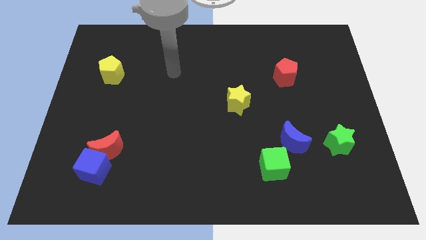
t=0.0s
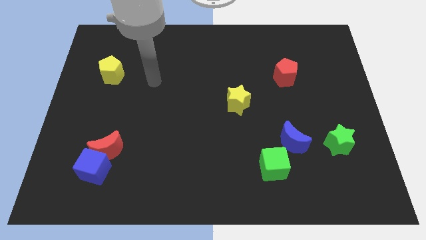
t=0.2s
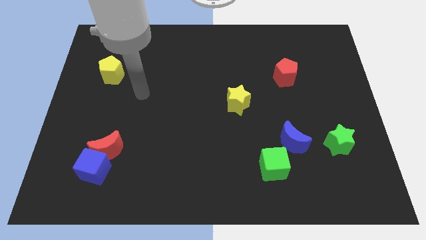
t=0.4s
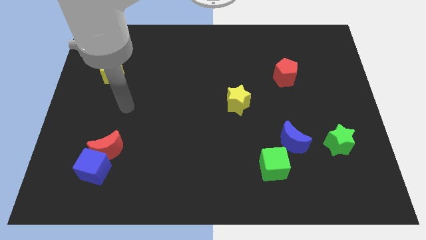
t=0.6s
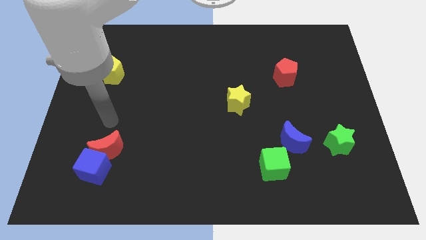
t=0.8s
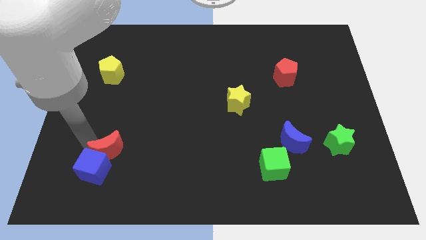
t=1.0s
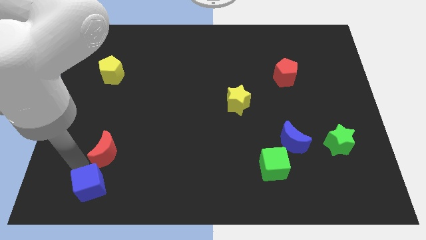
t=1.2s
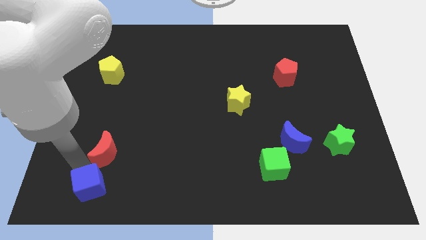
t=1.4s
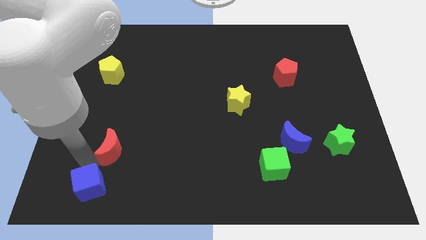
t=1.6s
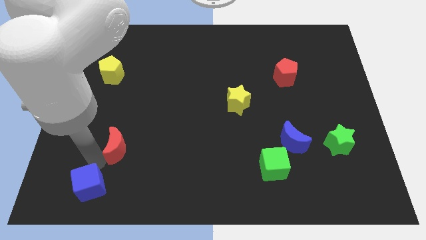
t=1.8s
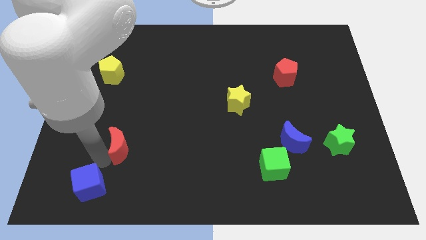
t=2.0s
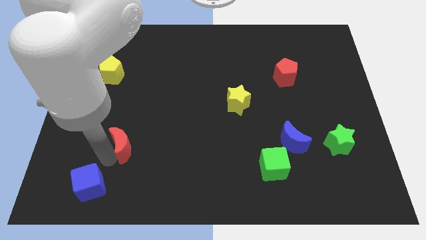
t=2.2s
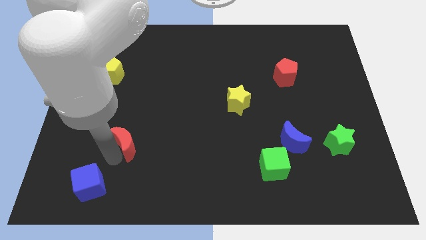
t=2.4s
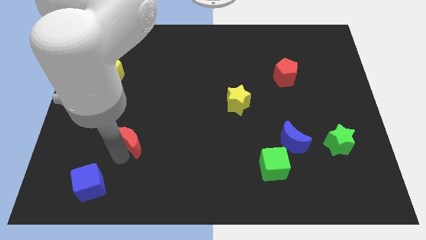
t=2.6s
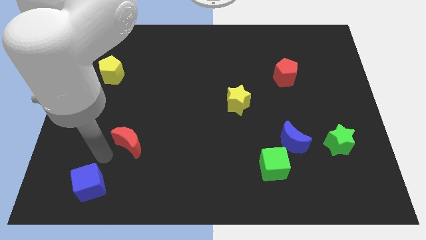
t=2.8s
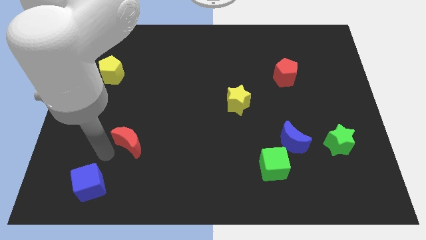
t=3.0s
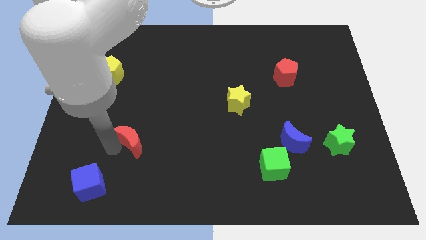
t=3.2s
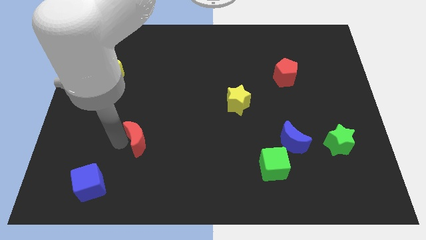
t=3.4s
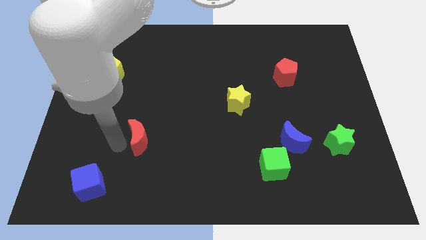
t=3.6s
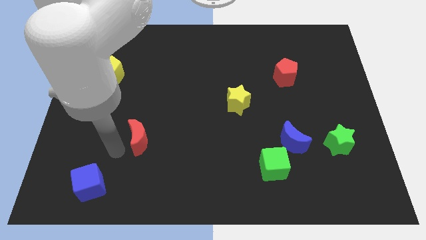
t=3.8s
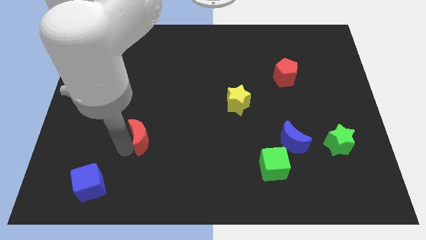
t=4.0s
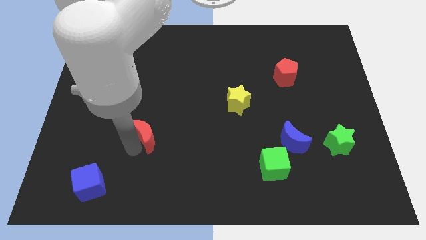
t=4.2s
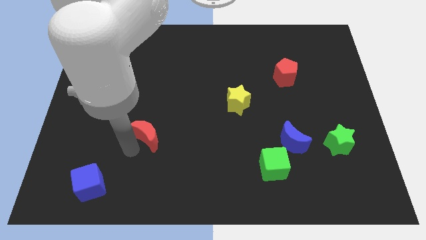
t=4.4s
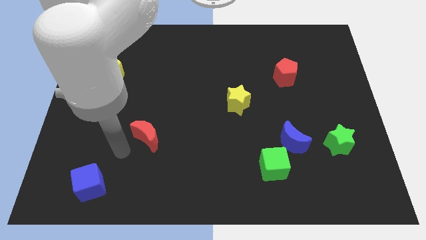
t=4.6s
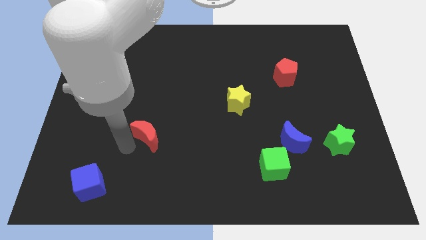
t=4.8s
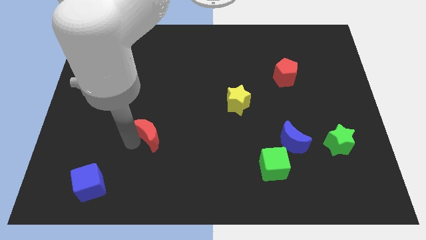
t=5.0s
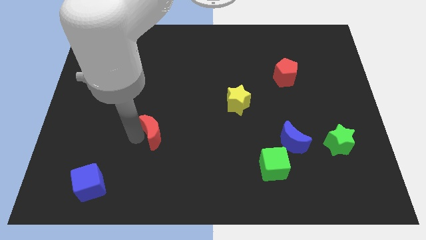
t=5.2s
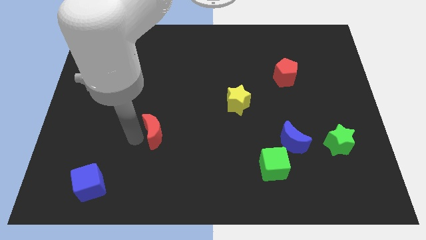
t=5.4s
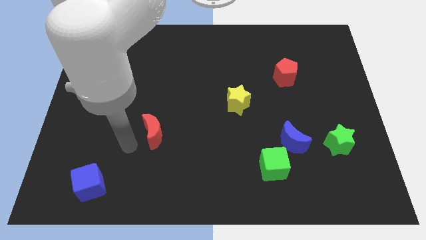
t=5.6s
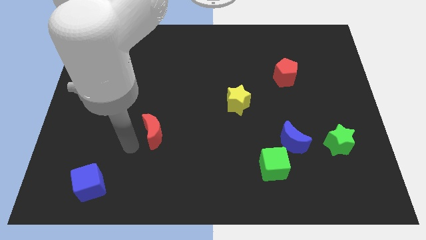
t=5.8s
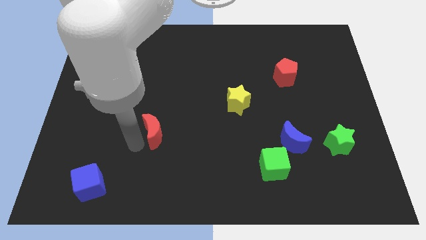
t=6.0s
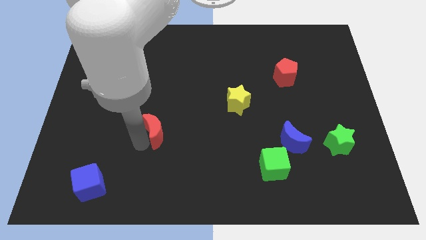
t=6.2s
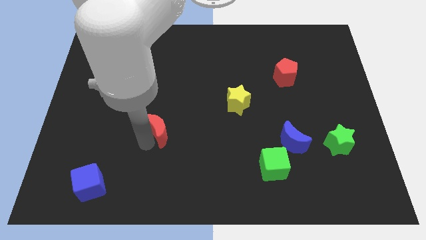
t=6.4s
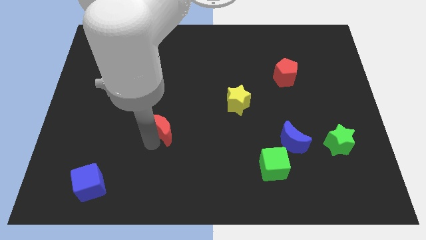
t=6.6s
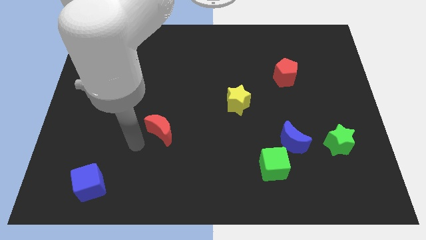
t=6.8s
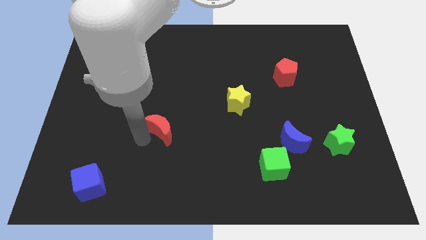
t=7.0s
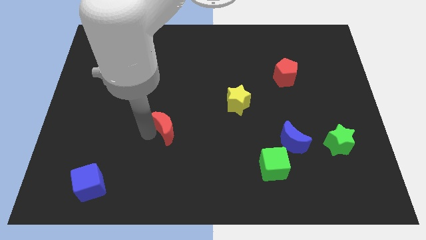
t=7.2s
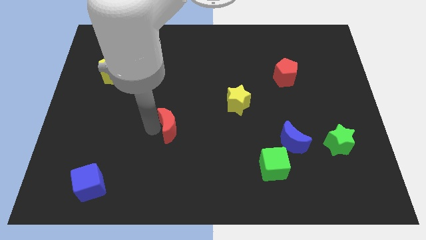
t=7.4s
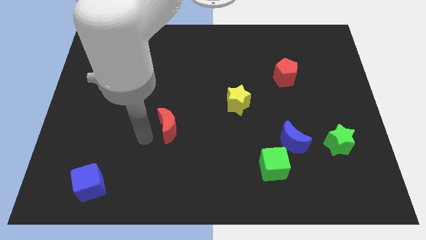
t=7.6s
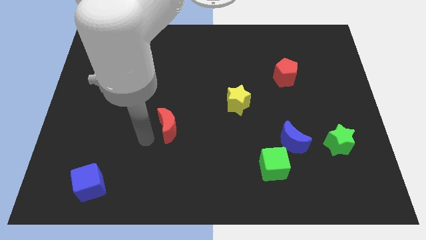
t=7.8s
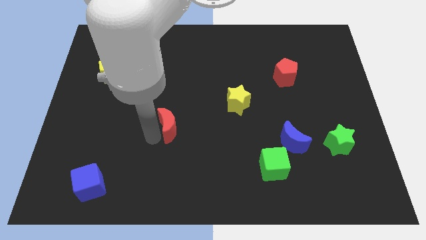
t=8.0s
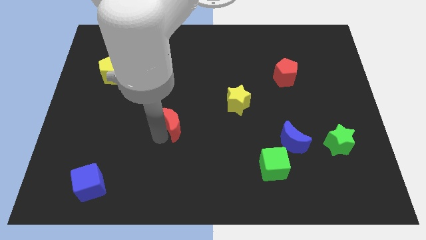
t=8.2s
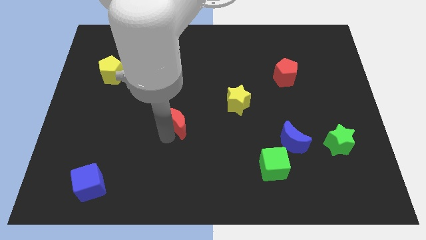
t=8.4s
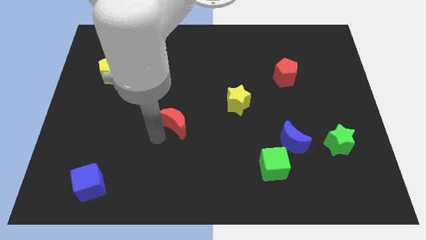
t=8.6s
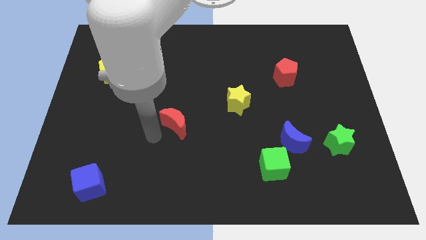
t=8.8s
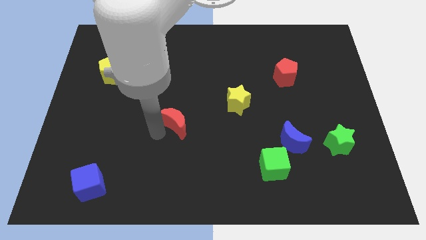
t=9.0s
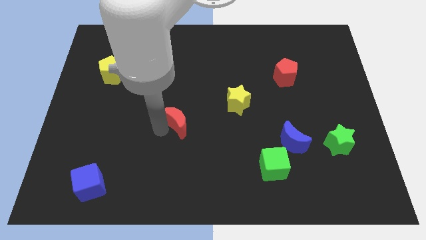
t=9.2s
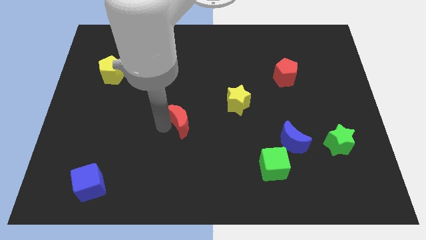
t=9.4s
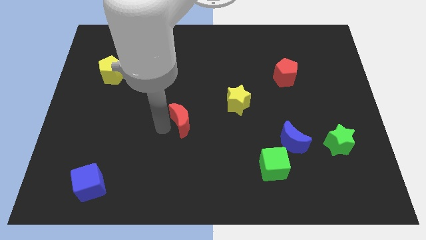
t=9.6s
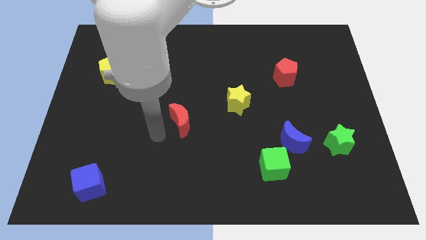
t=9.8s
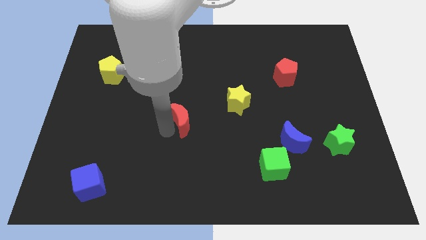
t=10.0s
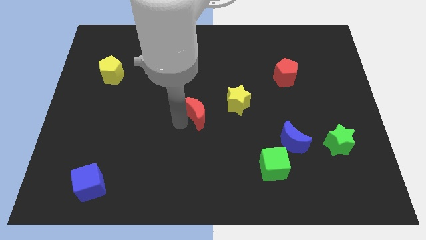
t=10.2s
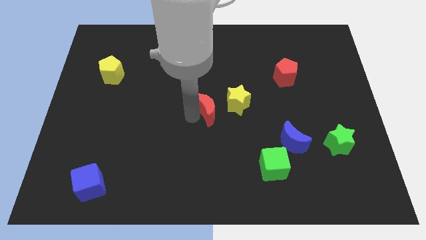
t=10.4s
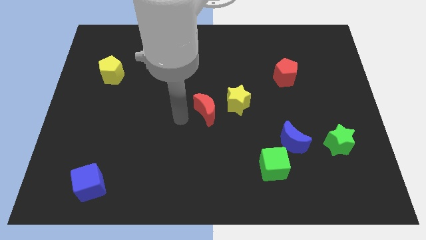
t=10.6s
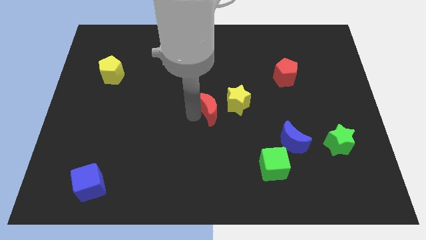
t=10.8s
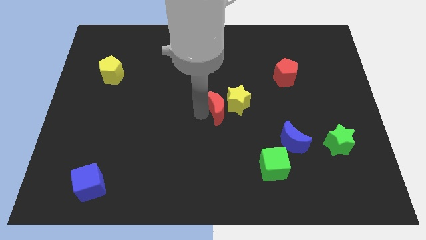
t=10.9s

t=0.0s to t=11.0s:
move the red moon to the yellow star

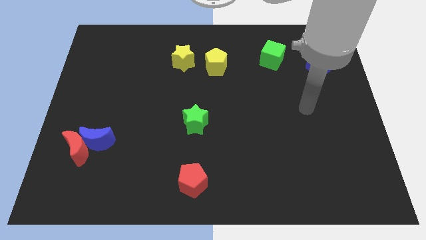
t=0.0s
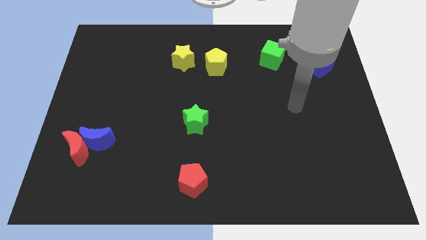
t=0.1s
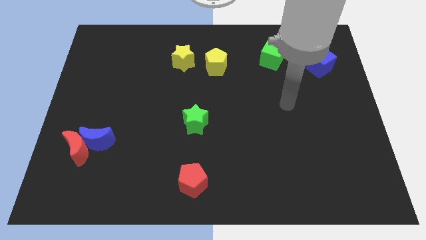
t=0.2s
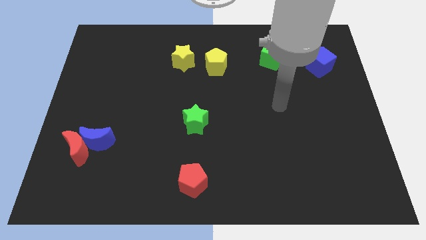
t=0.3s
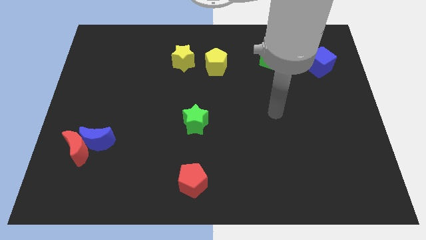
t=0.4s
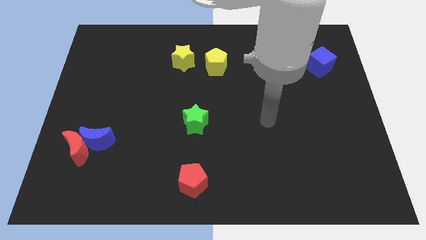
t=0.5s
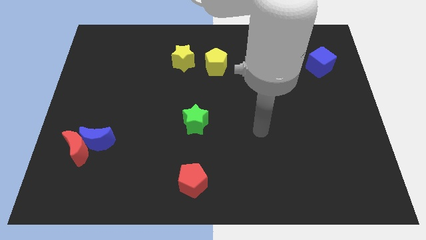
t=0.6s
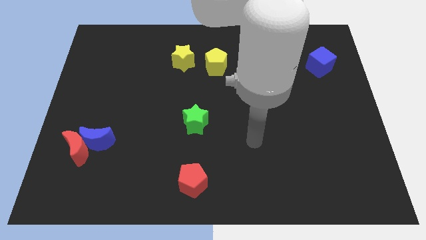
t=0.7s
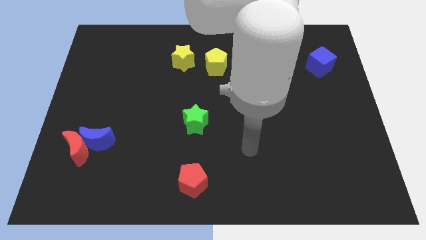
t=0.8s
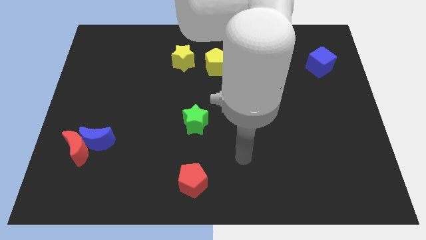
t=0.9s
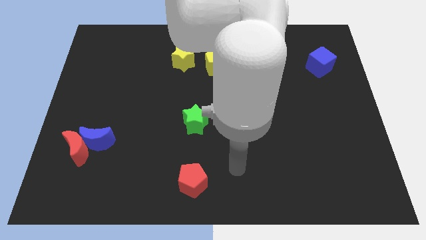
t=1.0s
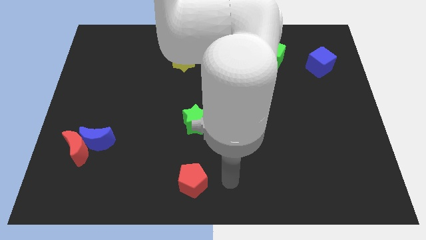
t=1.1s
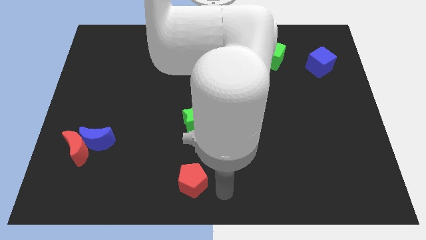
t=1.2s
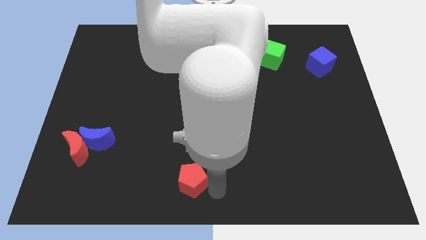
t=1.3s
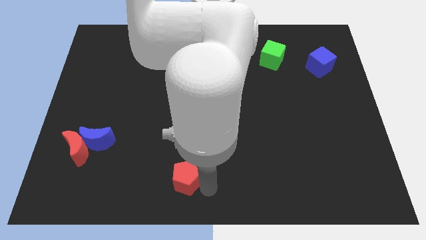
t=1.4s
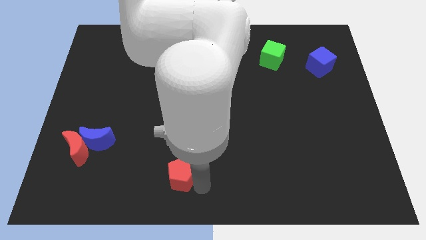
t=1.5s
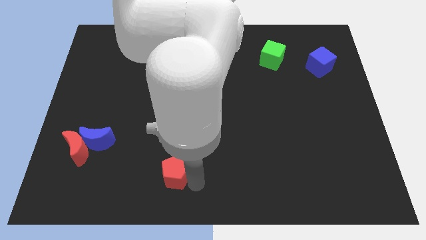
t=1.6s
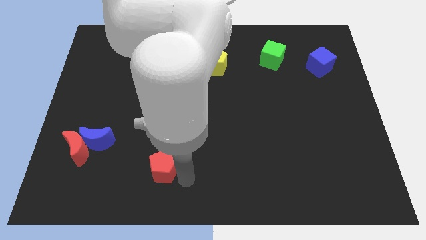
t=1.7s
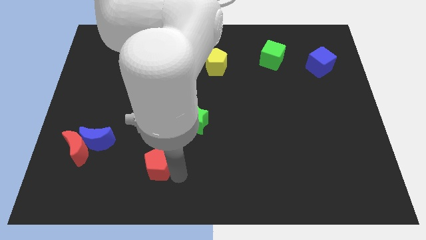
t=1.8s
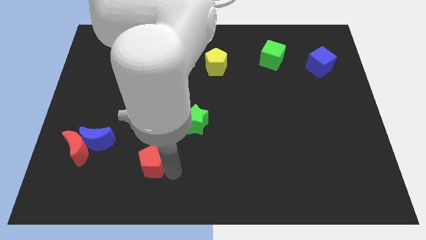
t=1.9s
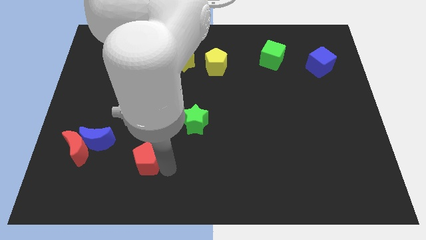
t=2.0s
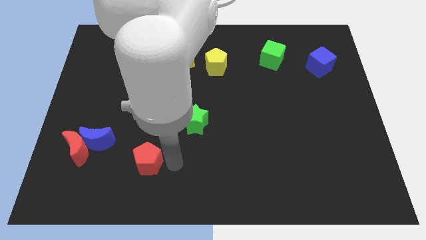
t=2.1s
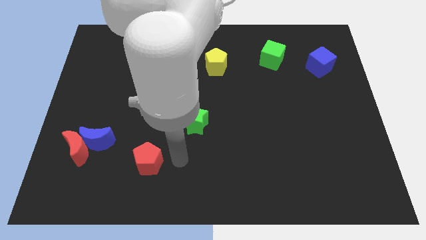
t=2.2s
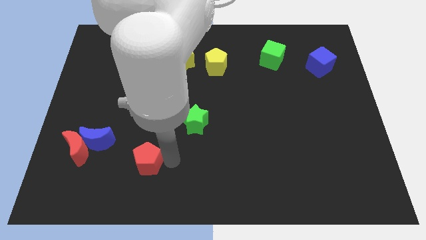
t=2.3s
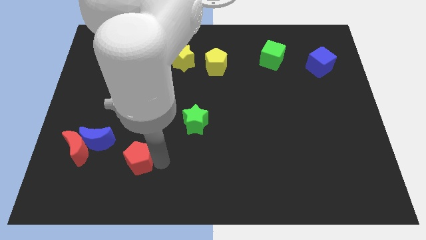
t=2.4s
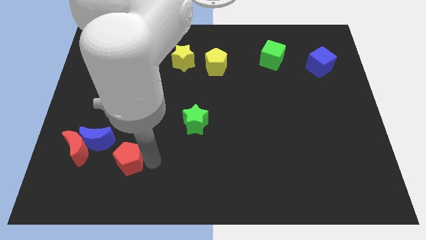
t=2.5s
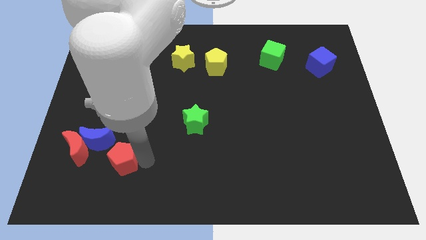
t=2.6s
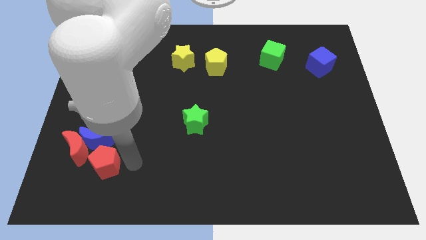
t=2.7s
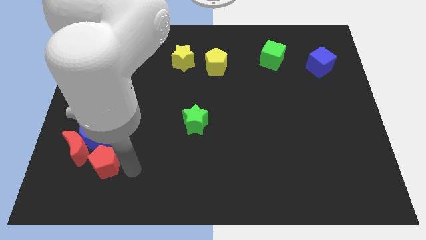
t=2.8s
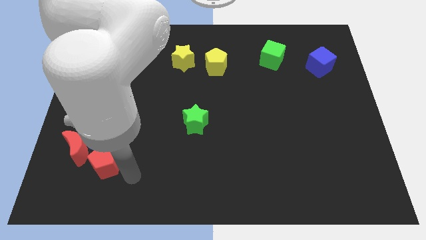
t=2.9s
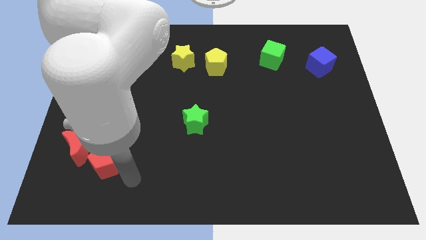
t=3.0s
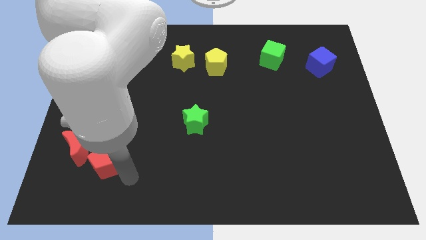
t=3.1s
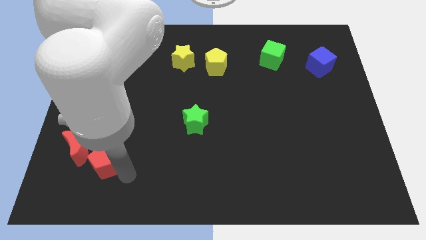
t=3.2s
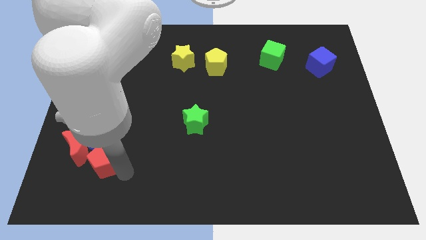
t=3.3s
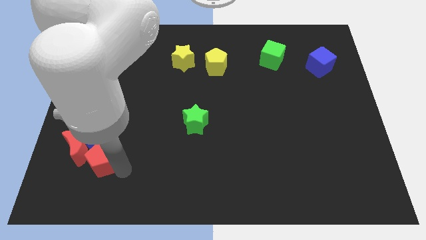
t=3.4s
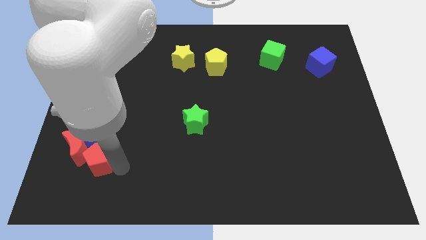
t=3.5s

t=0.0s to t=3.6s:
move the red pentagon close to the red moon
